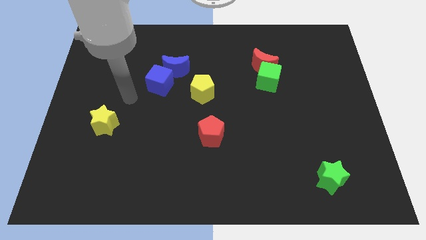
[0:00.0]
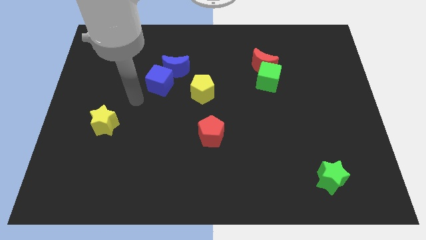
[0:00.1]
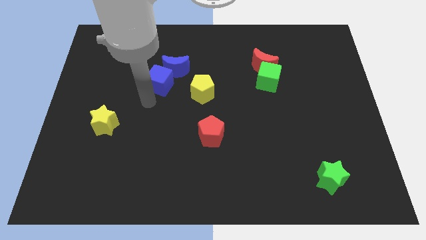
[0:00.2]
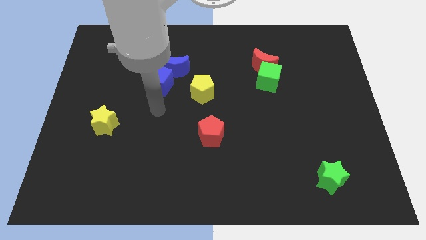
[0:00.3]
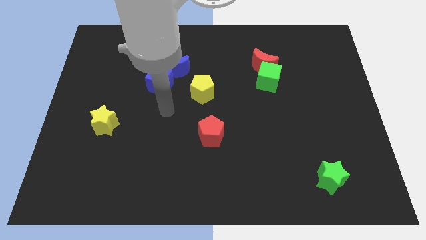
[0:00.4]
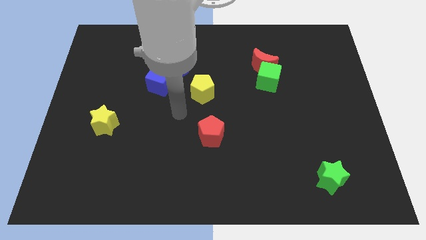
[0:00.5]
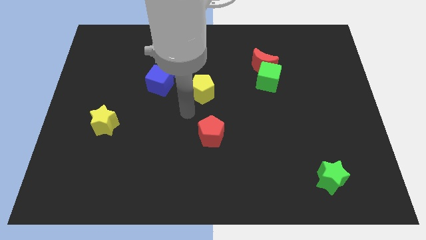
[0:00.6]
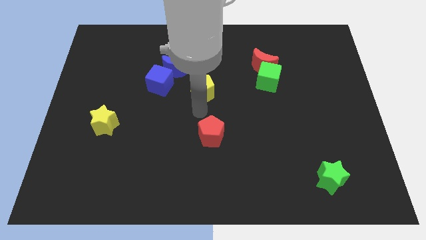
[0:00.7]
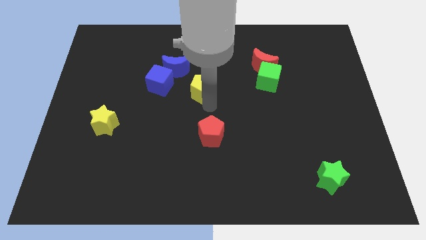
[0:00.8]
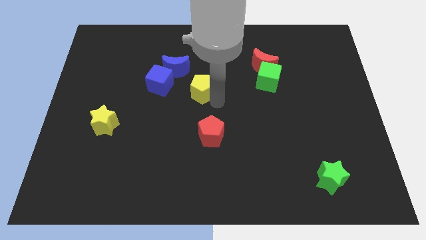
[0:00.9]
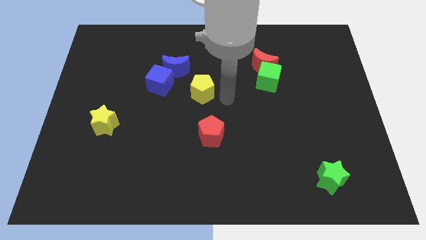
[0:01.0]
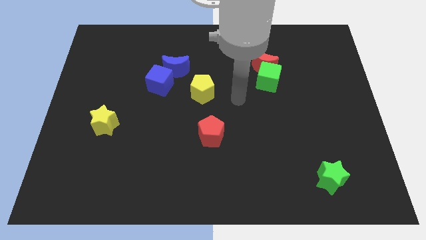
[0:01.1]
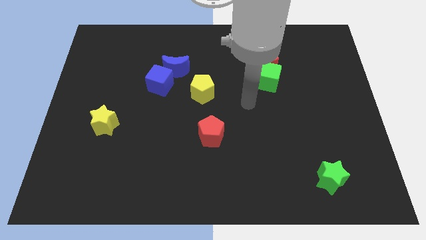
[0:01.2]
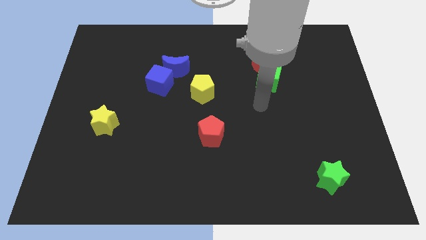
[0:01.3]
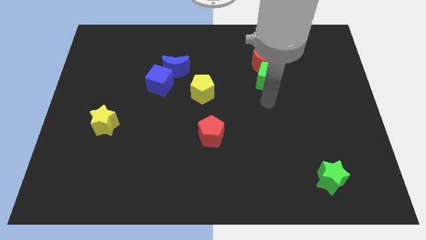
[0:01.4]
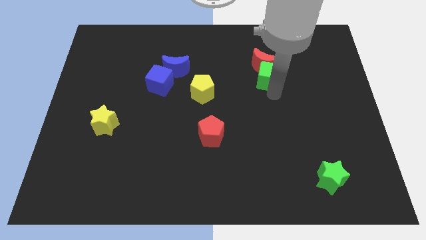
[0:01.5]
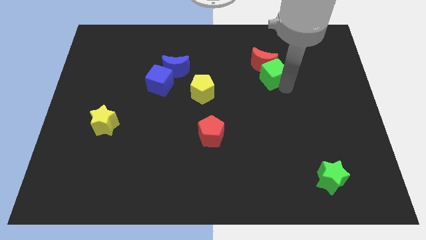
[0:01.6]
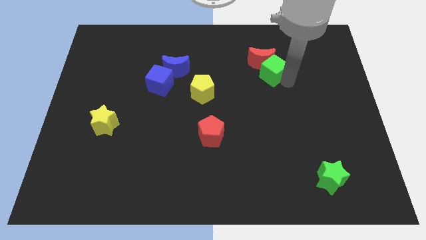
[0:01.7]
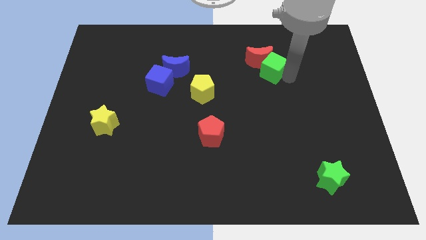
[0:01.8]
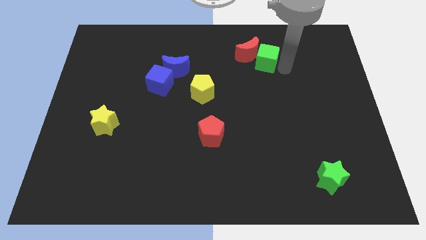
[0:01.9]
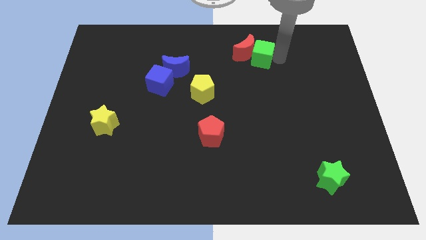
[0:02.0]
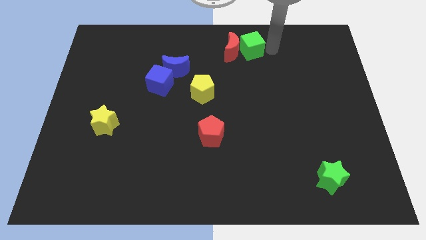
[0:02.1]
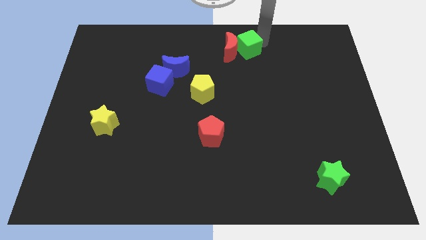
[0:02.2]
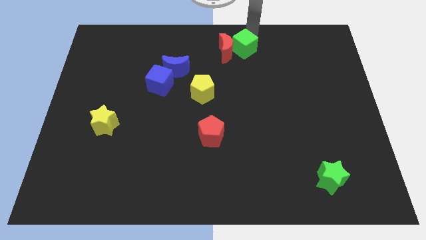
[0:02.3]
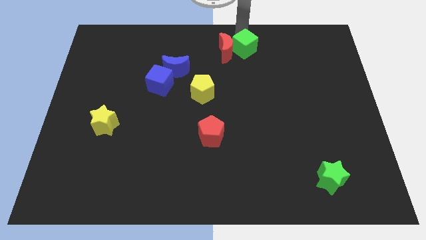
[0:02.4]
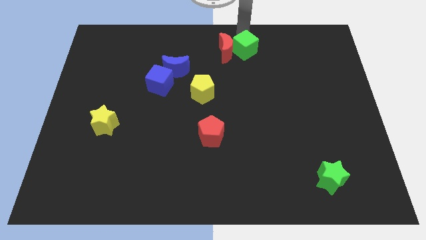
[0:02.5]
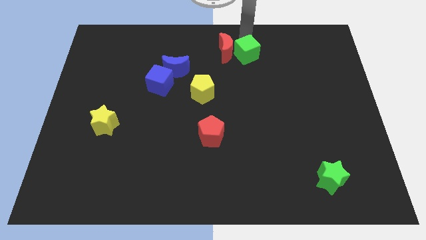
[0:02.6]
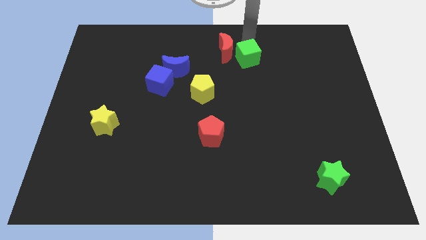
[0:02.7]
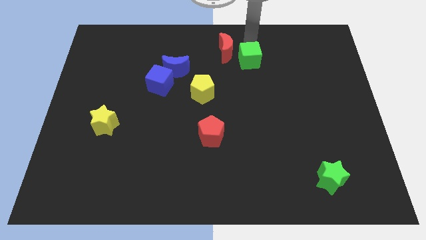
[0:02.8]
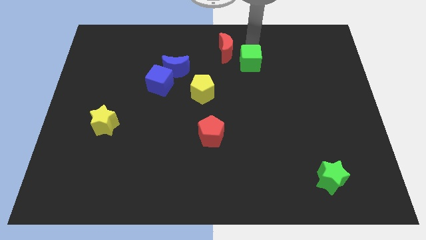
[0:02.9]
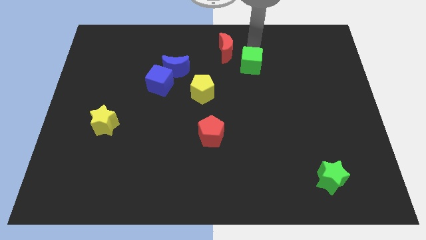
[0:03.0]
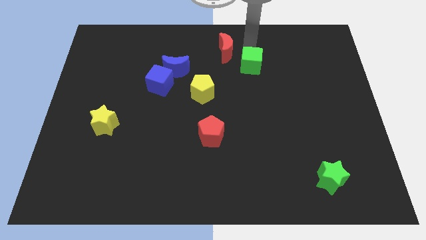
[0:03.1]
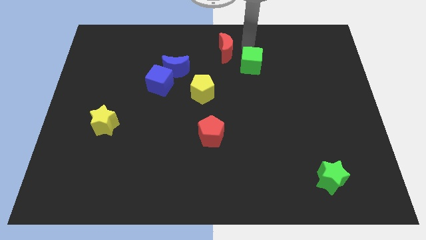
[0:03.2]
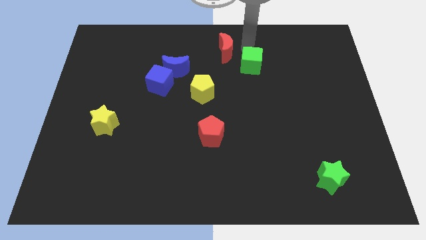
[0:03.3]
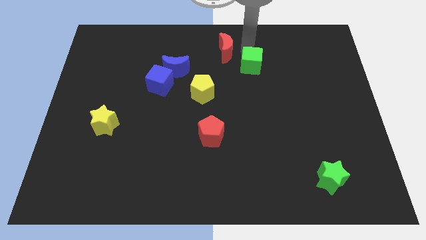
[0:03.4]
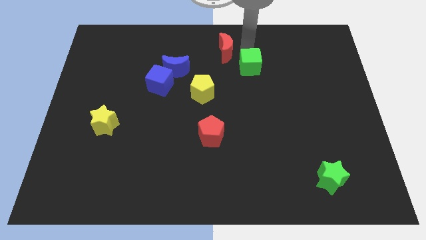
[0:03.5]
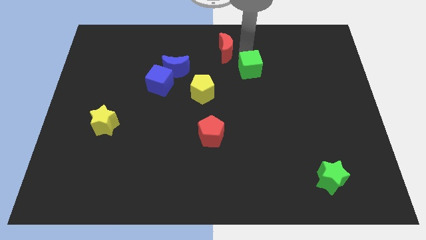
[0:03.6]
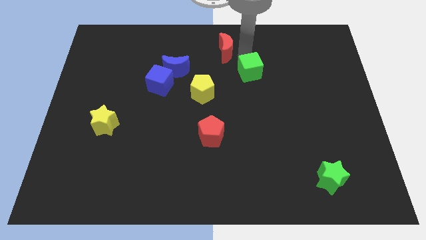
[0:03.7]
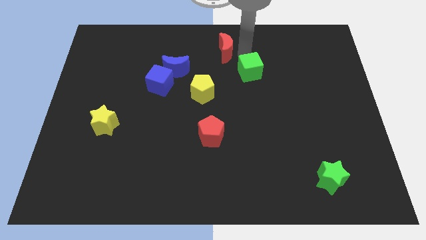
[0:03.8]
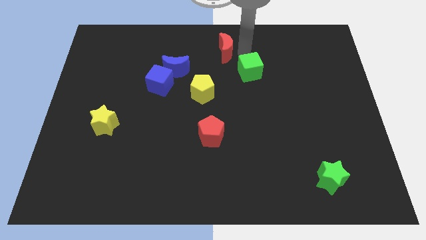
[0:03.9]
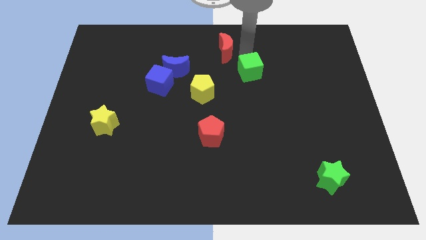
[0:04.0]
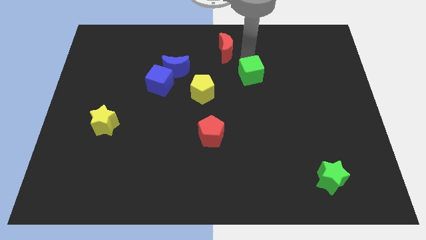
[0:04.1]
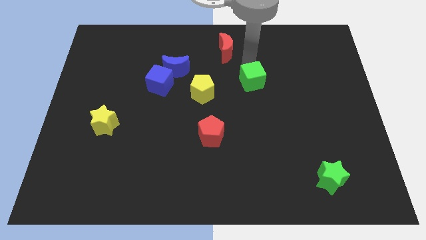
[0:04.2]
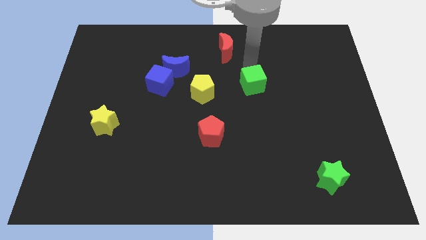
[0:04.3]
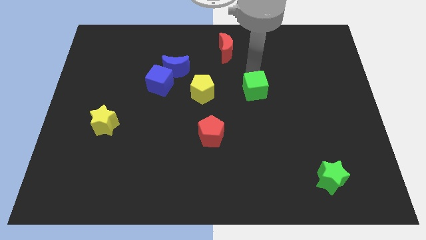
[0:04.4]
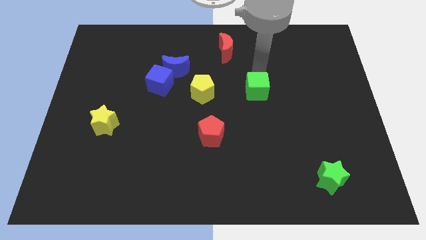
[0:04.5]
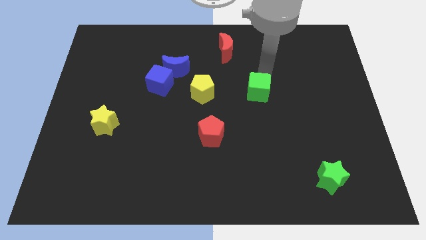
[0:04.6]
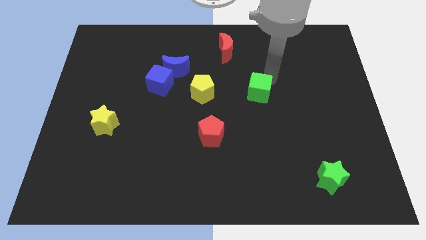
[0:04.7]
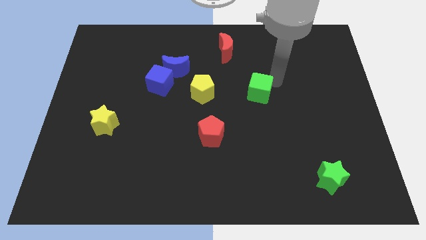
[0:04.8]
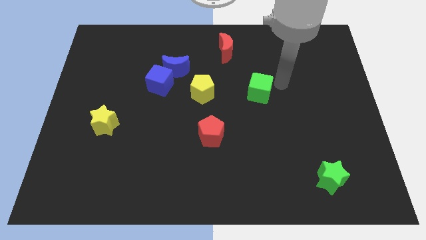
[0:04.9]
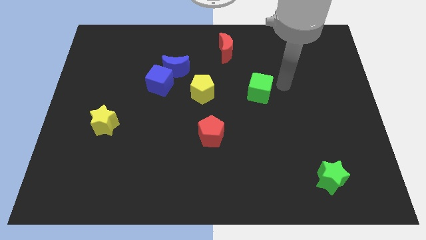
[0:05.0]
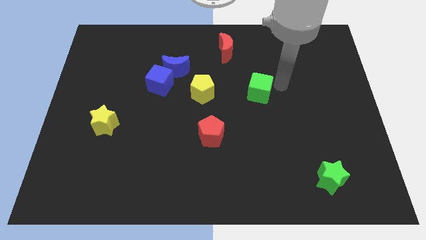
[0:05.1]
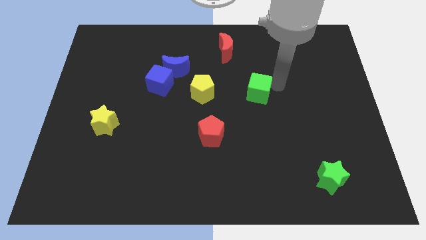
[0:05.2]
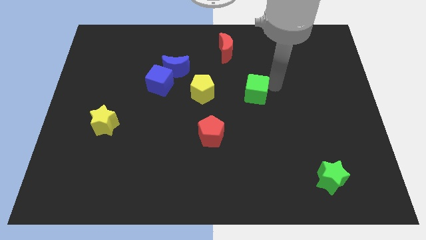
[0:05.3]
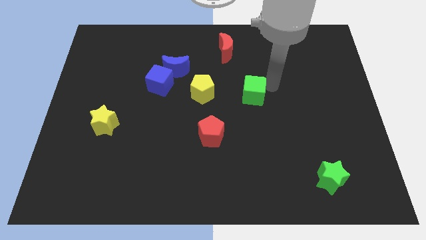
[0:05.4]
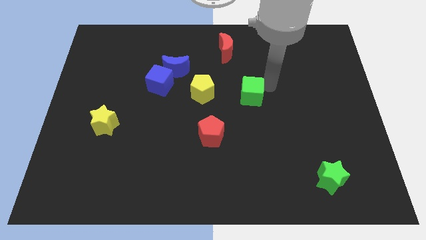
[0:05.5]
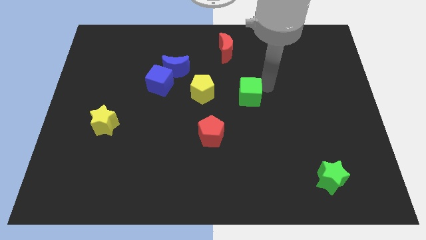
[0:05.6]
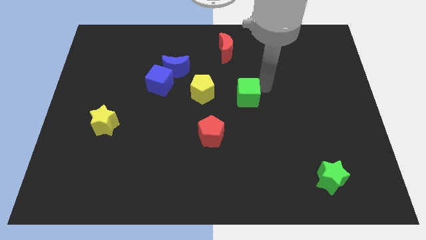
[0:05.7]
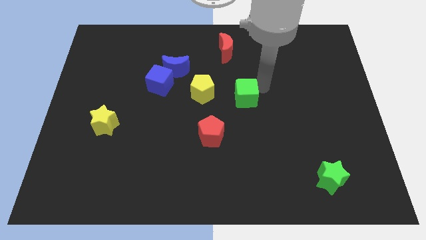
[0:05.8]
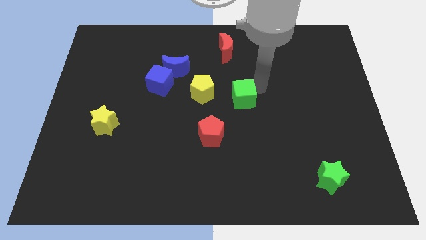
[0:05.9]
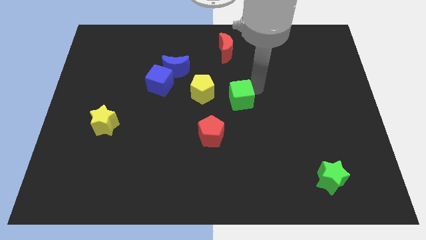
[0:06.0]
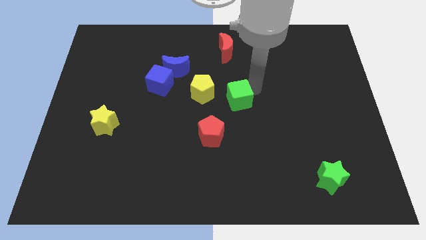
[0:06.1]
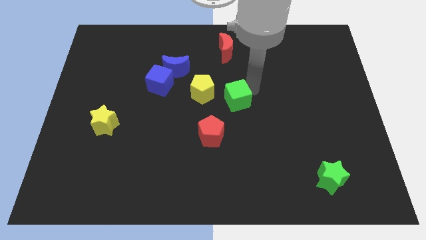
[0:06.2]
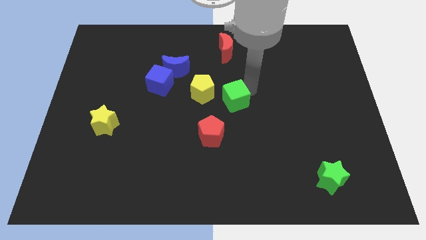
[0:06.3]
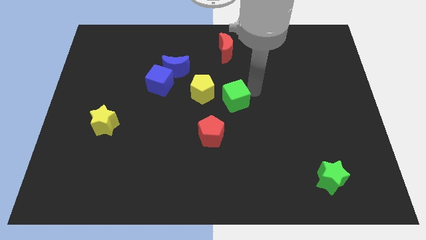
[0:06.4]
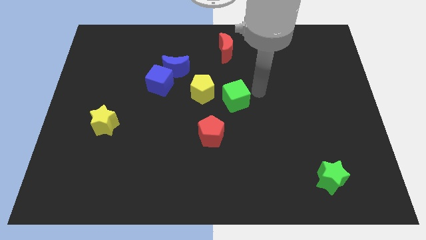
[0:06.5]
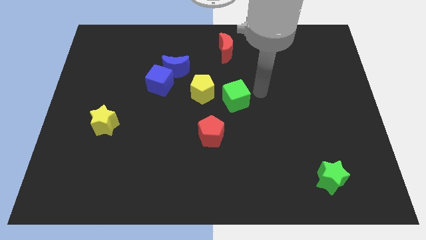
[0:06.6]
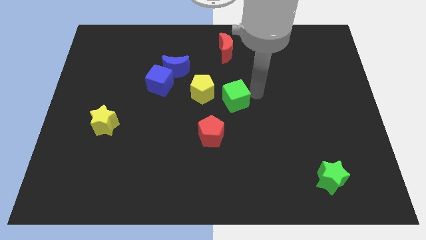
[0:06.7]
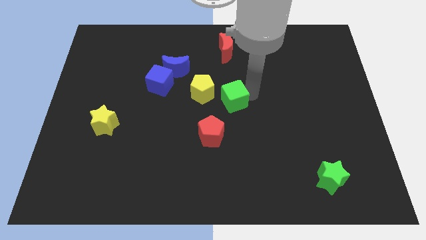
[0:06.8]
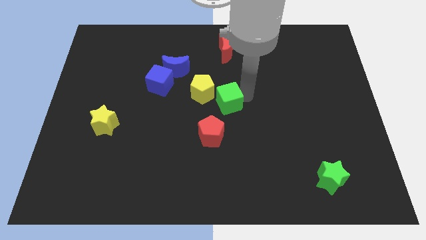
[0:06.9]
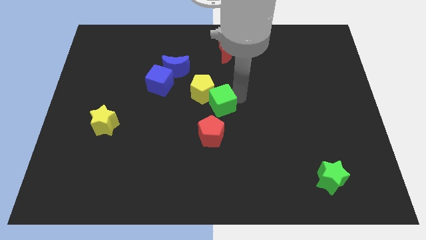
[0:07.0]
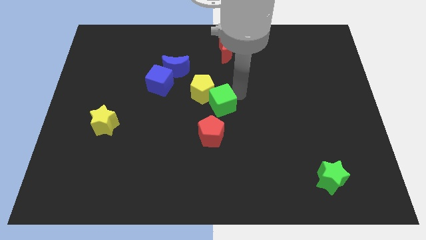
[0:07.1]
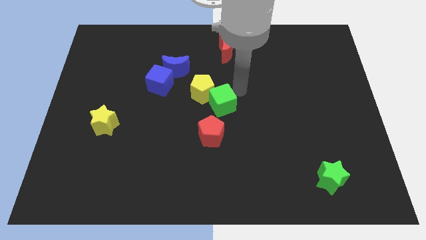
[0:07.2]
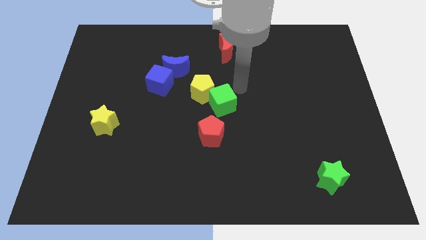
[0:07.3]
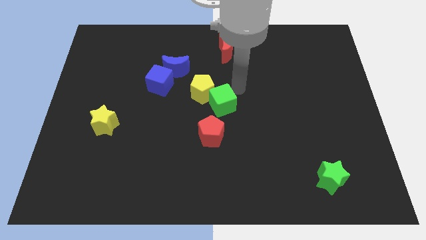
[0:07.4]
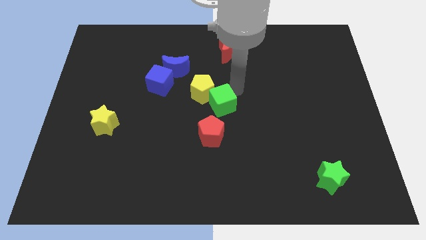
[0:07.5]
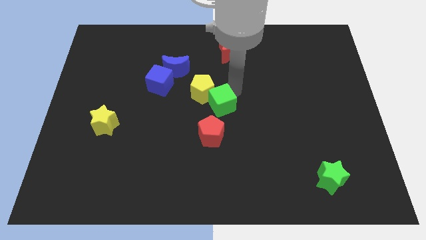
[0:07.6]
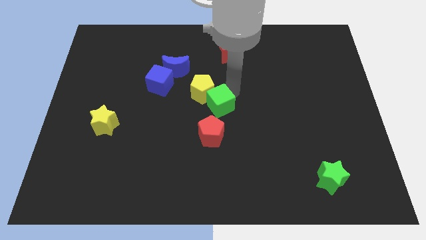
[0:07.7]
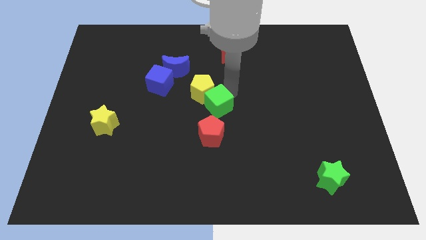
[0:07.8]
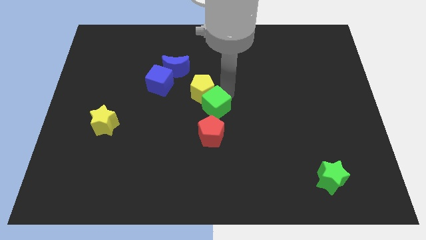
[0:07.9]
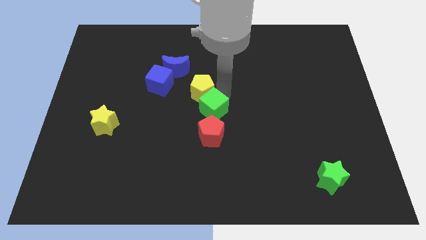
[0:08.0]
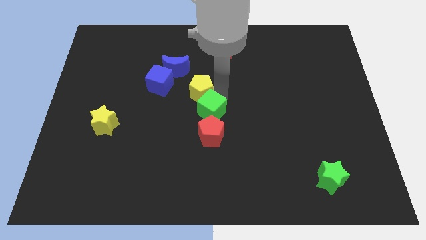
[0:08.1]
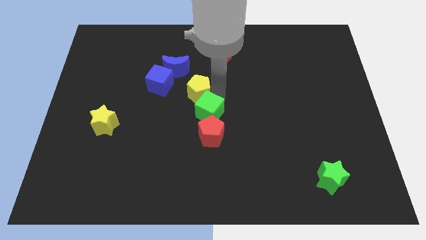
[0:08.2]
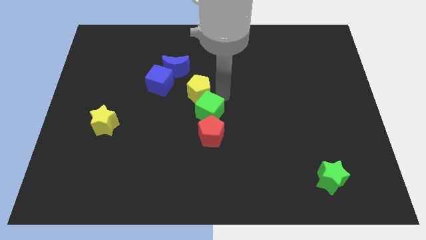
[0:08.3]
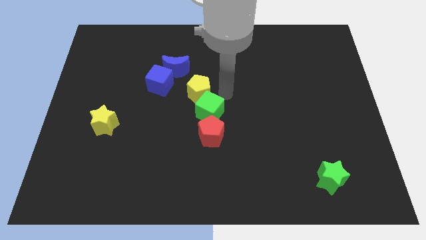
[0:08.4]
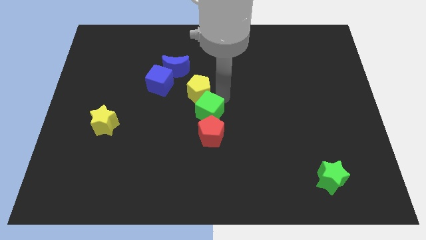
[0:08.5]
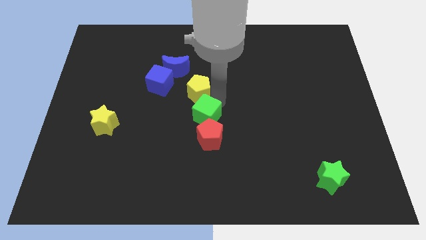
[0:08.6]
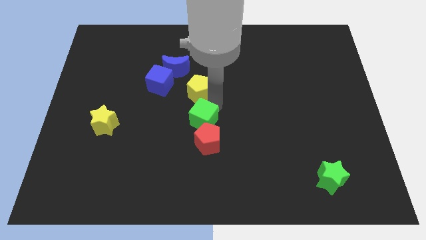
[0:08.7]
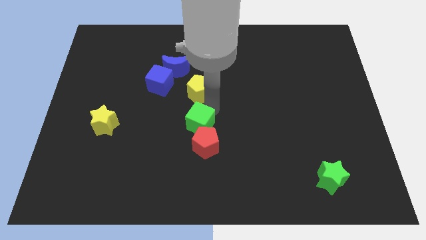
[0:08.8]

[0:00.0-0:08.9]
move the green cube downwards and then left
